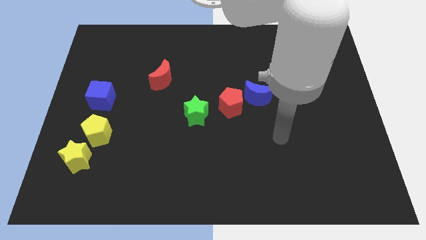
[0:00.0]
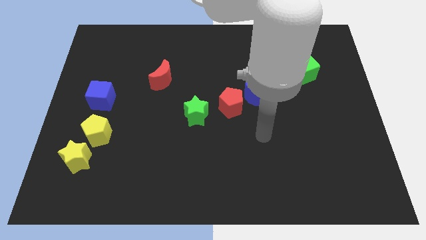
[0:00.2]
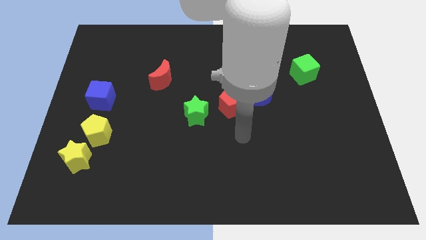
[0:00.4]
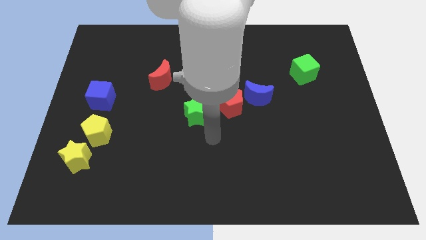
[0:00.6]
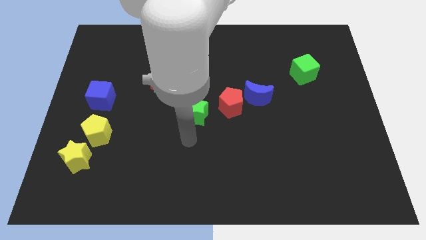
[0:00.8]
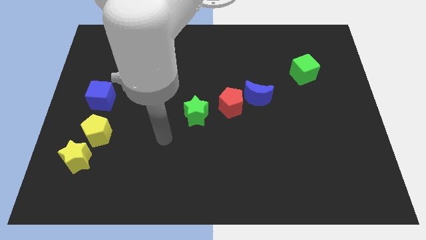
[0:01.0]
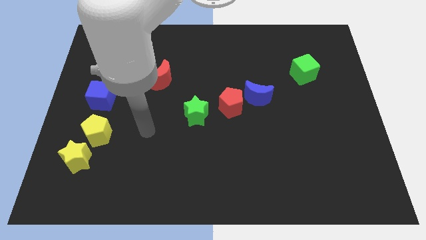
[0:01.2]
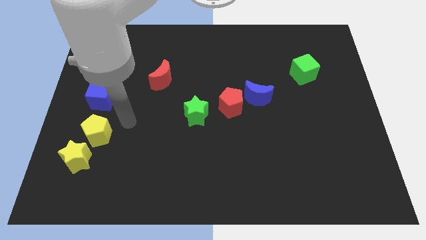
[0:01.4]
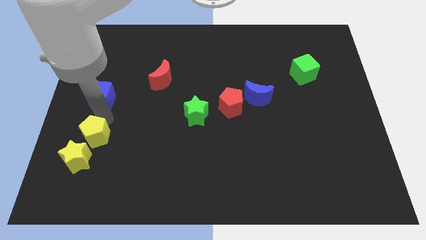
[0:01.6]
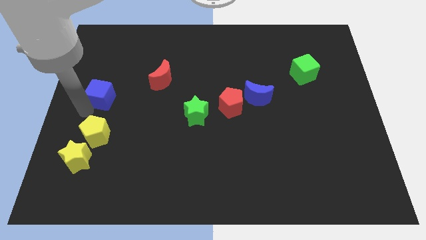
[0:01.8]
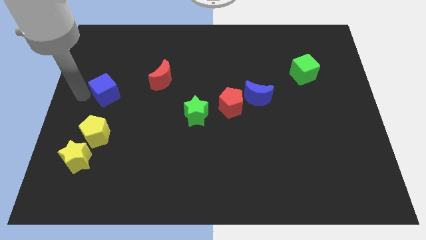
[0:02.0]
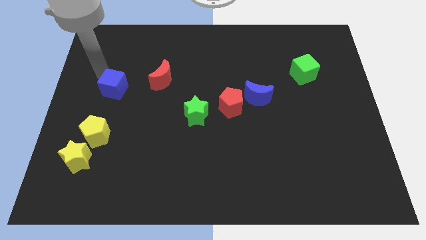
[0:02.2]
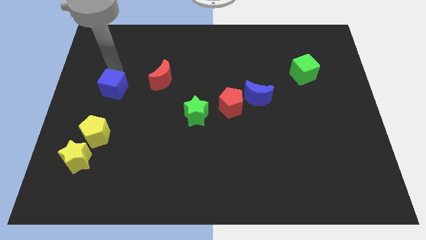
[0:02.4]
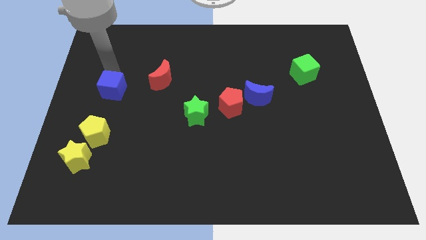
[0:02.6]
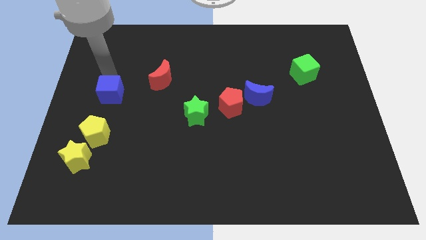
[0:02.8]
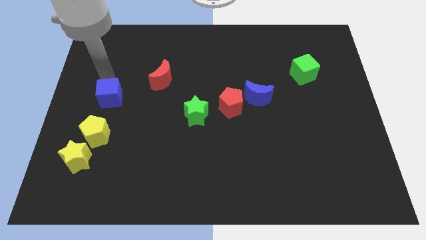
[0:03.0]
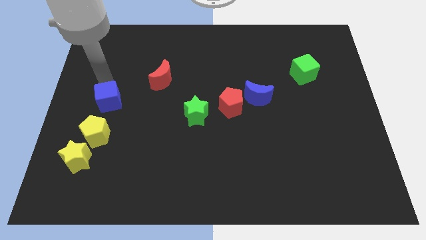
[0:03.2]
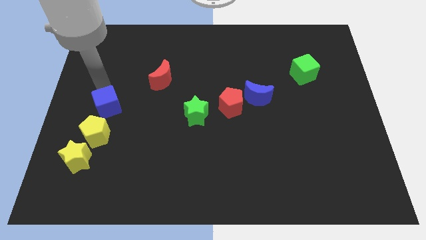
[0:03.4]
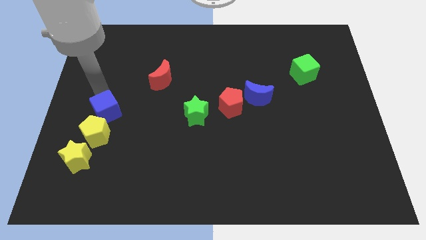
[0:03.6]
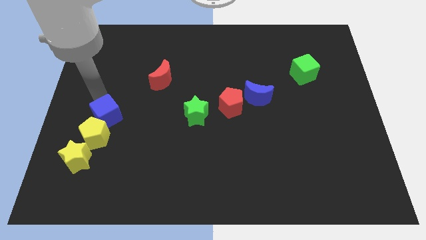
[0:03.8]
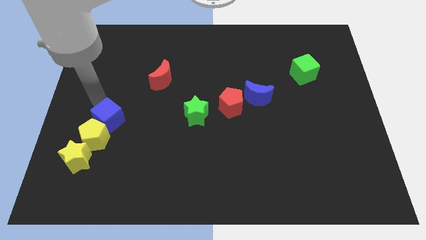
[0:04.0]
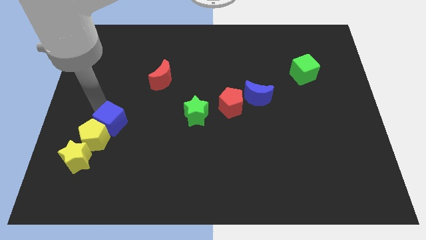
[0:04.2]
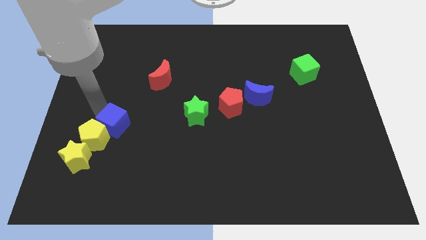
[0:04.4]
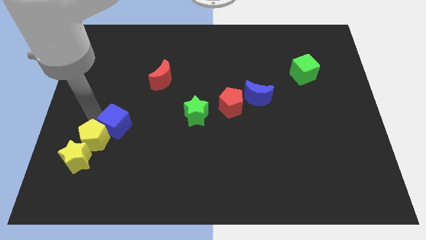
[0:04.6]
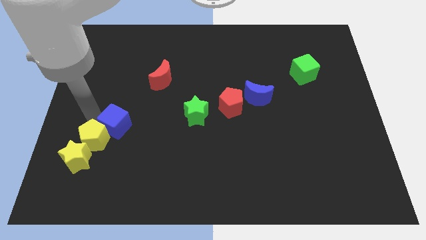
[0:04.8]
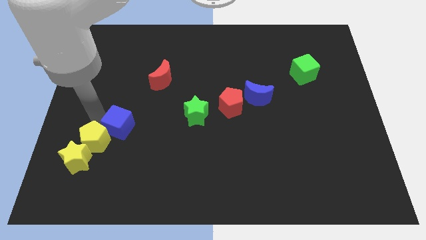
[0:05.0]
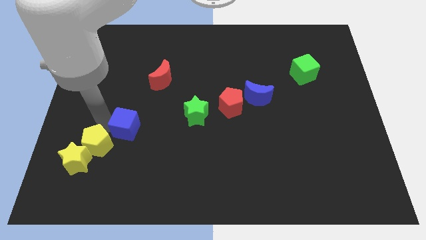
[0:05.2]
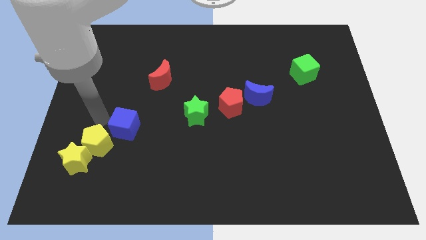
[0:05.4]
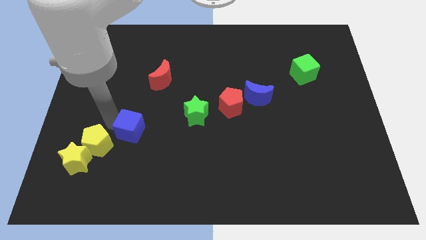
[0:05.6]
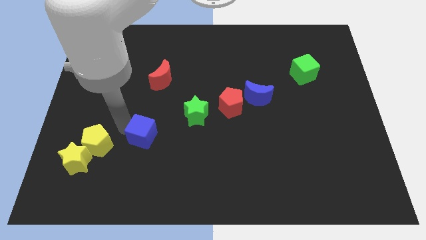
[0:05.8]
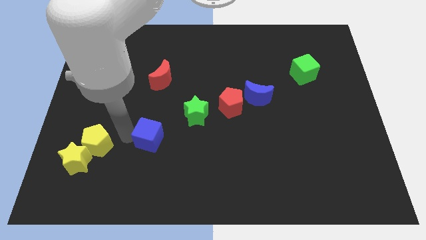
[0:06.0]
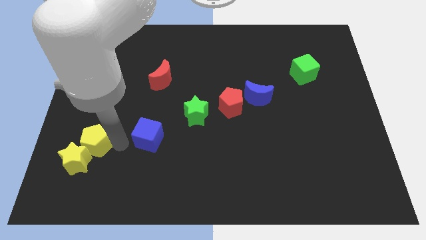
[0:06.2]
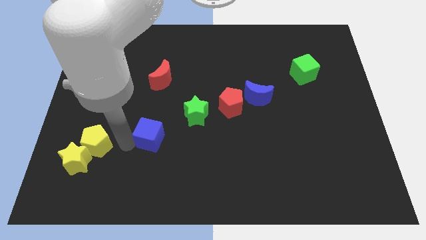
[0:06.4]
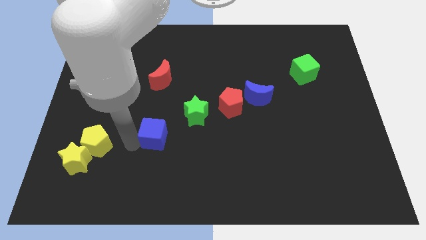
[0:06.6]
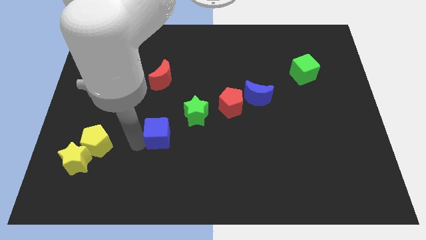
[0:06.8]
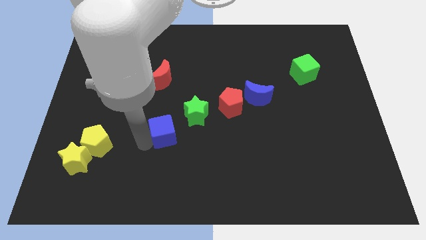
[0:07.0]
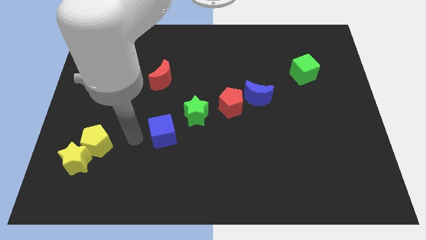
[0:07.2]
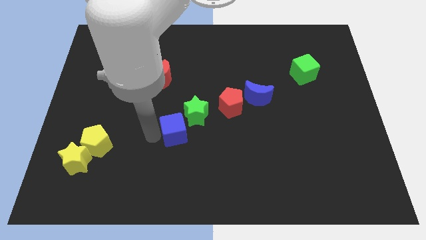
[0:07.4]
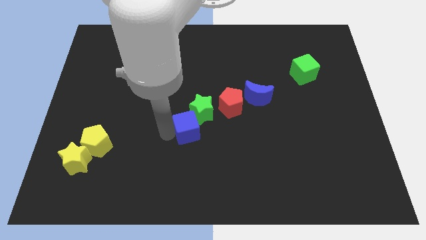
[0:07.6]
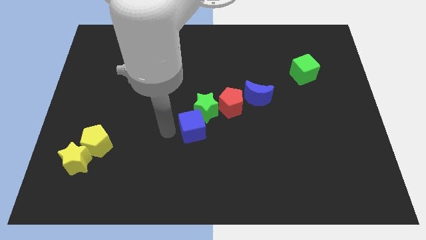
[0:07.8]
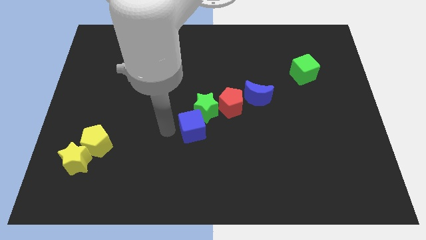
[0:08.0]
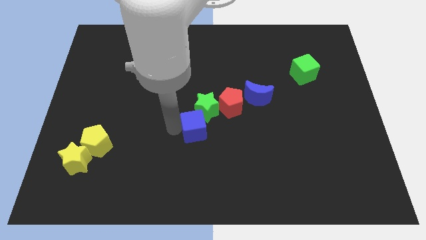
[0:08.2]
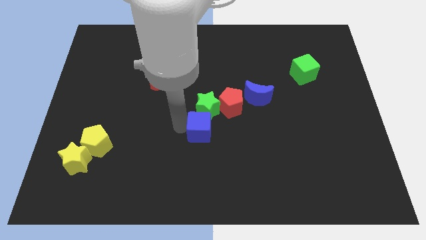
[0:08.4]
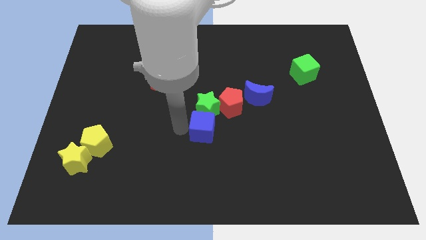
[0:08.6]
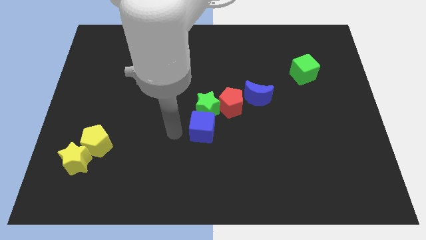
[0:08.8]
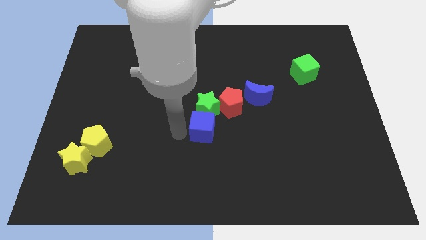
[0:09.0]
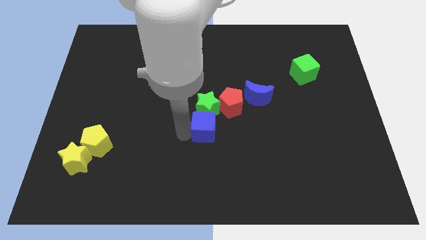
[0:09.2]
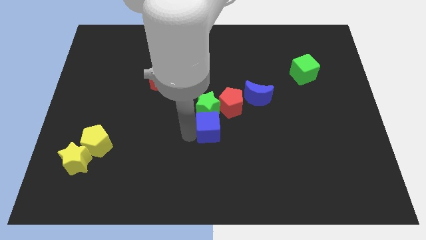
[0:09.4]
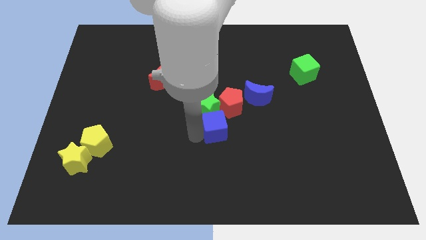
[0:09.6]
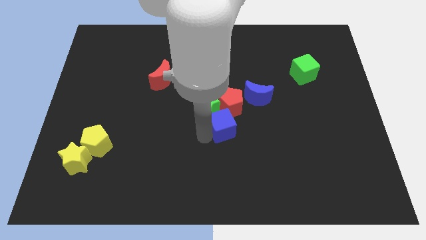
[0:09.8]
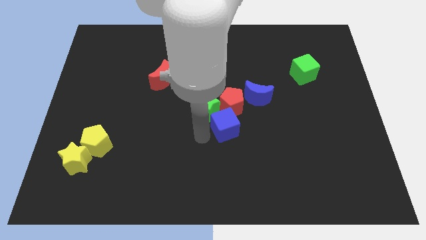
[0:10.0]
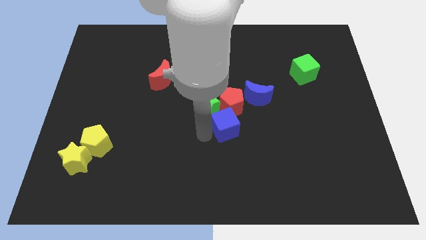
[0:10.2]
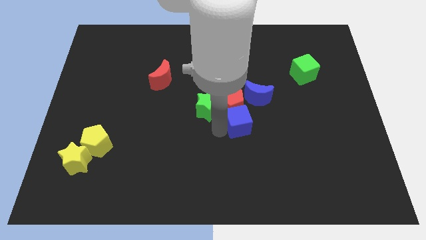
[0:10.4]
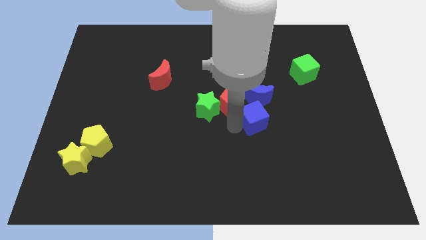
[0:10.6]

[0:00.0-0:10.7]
push the blue cube just right of the red pentagon

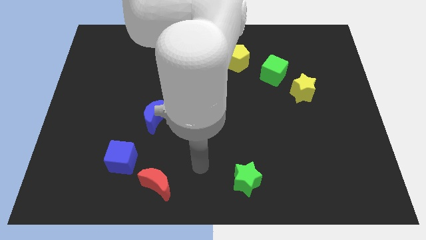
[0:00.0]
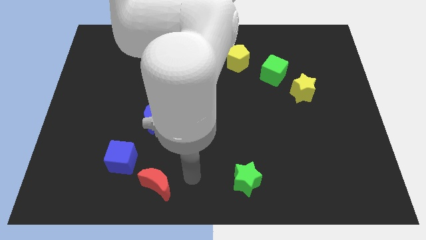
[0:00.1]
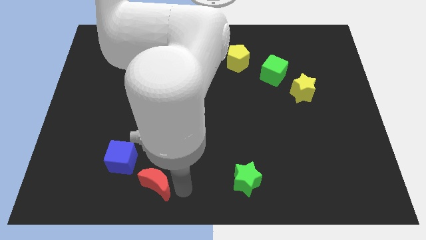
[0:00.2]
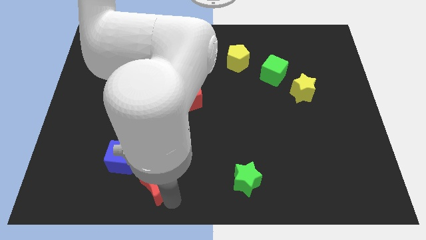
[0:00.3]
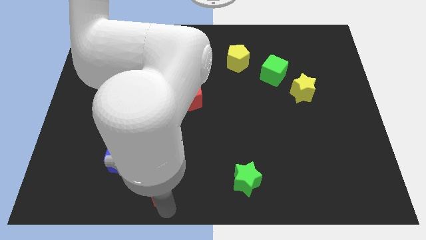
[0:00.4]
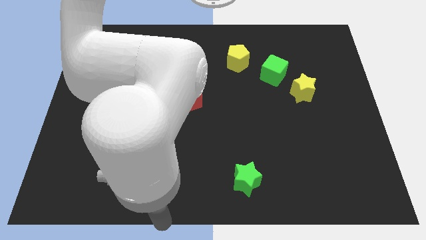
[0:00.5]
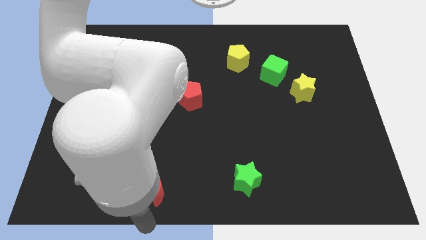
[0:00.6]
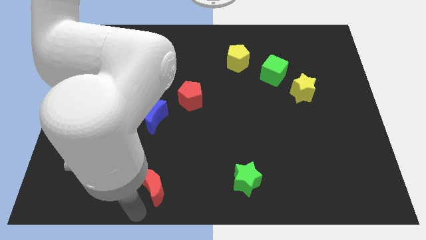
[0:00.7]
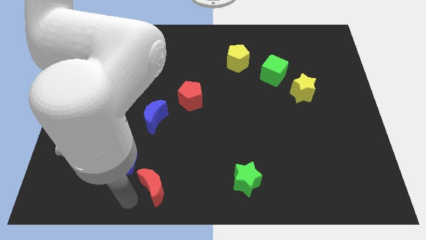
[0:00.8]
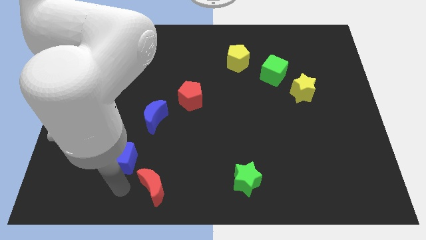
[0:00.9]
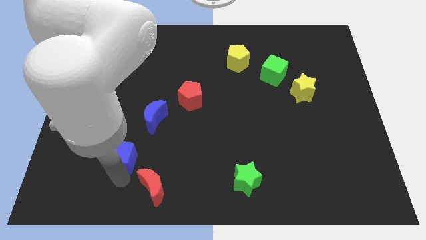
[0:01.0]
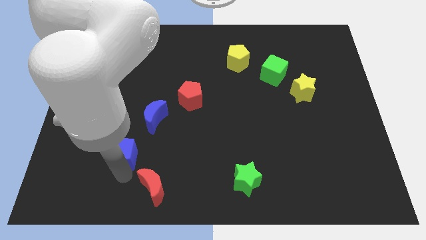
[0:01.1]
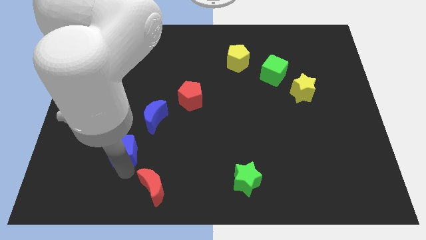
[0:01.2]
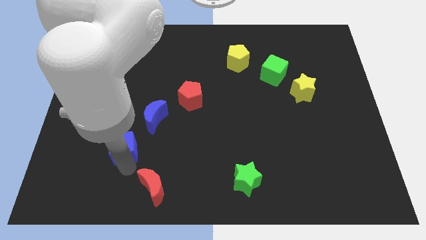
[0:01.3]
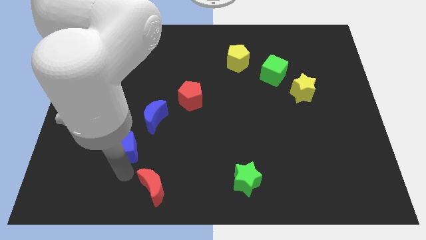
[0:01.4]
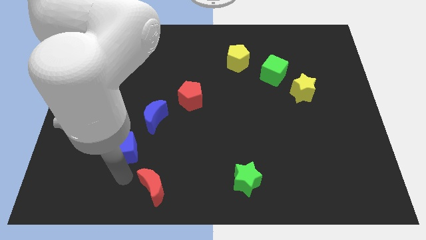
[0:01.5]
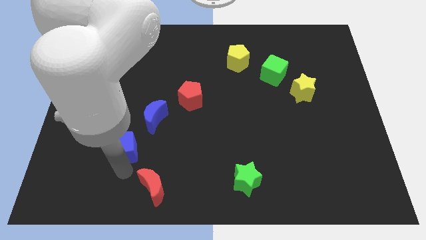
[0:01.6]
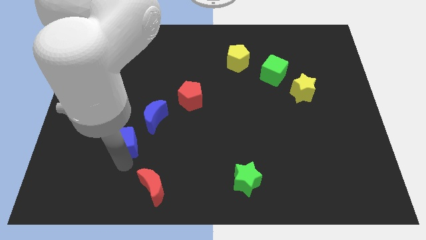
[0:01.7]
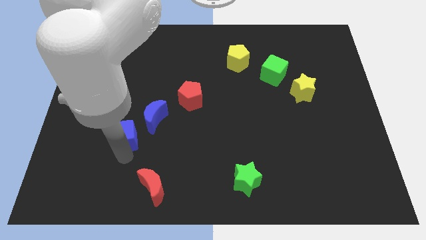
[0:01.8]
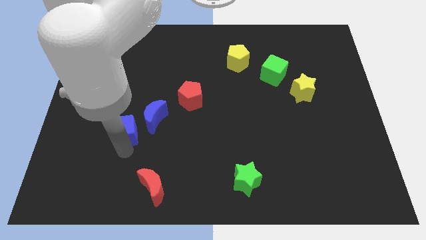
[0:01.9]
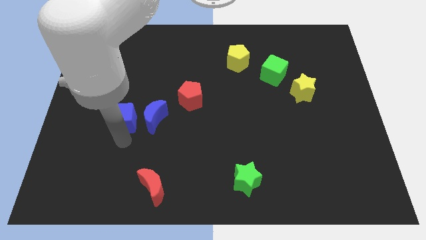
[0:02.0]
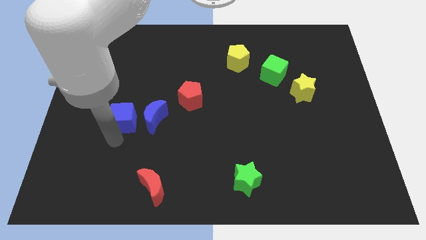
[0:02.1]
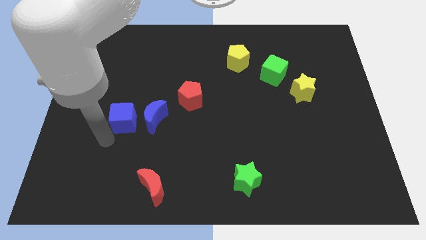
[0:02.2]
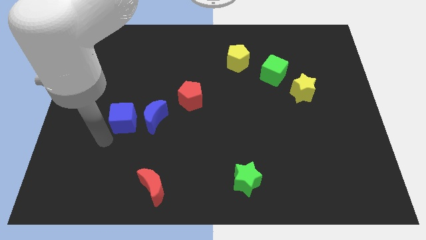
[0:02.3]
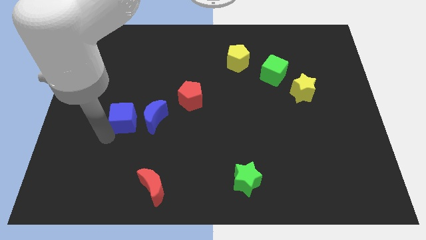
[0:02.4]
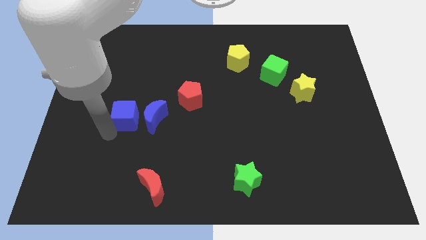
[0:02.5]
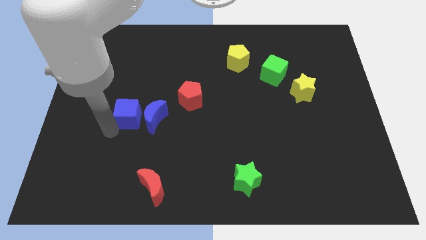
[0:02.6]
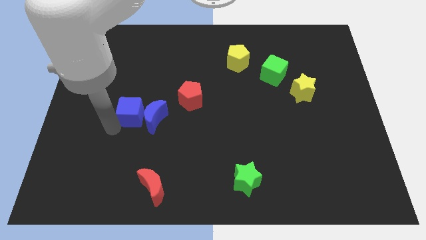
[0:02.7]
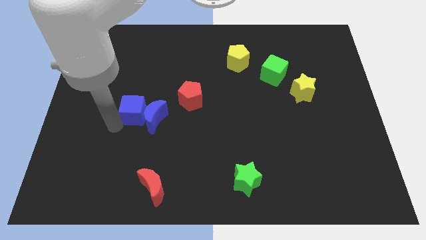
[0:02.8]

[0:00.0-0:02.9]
put the blue cube to the left side of the red pentagon
